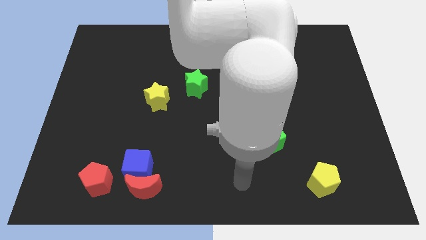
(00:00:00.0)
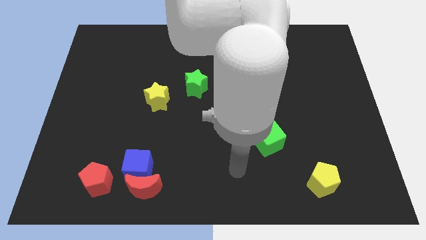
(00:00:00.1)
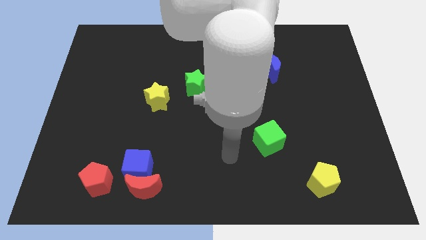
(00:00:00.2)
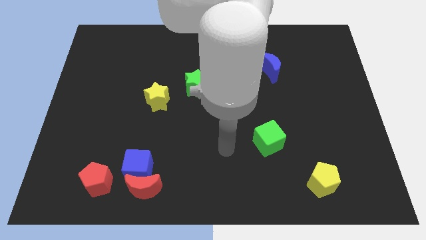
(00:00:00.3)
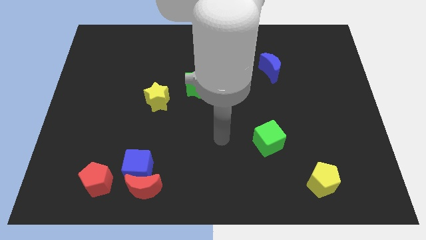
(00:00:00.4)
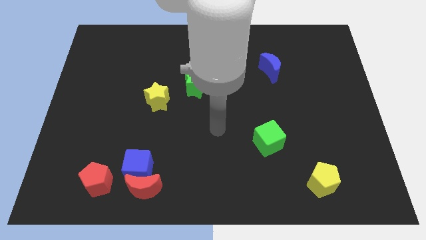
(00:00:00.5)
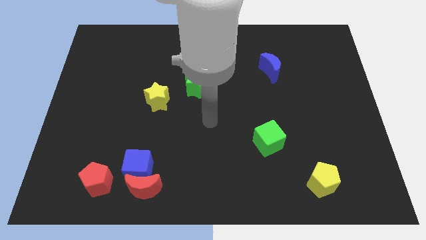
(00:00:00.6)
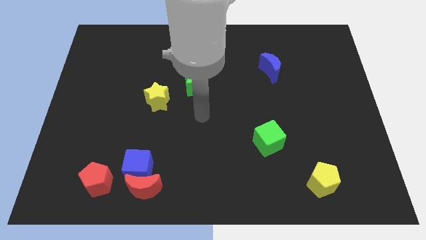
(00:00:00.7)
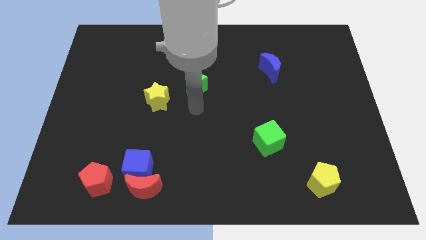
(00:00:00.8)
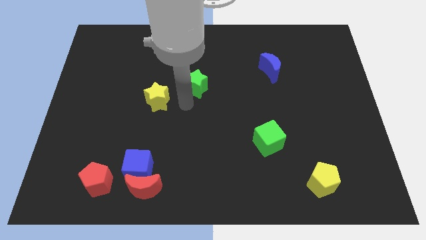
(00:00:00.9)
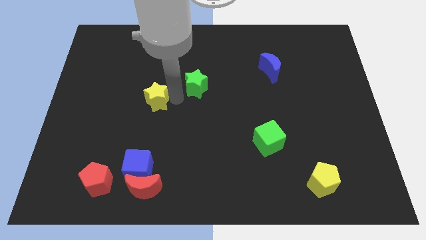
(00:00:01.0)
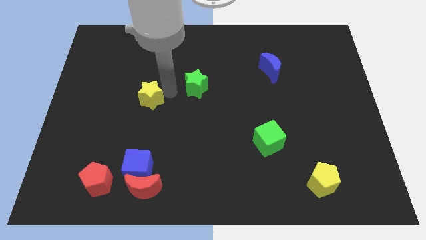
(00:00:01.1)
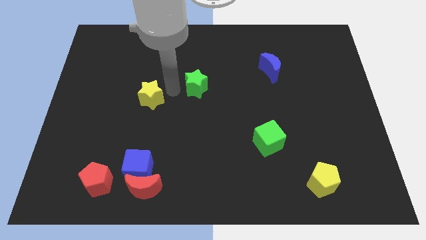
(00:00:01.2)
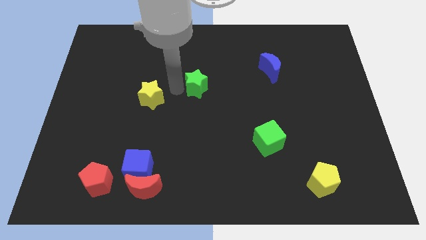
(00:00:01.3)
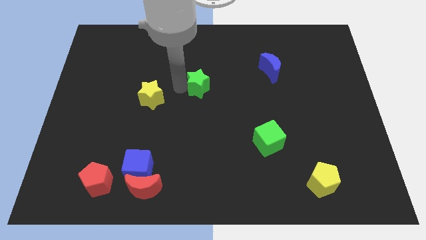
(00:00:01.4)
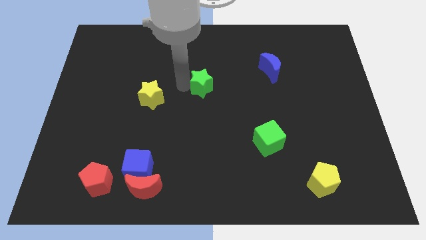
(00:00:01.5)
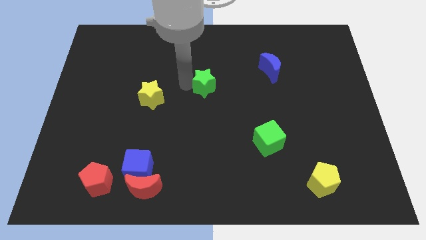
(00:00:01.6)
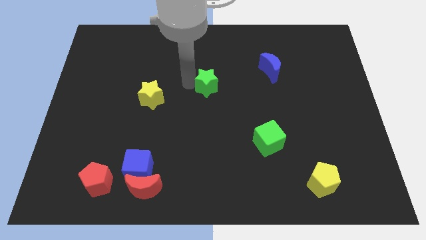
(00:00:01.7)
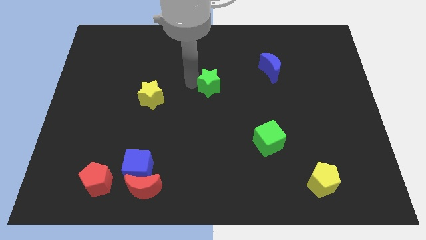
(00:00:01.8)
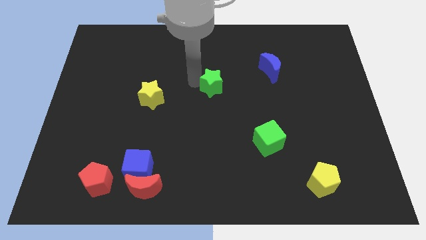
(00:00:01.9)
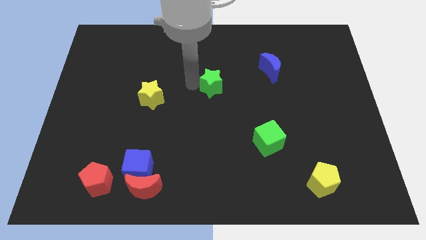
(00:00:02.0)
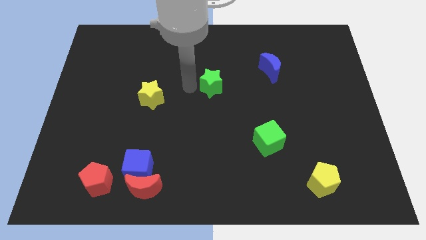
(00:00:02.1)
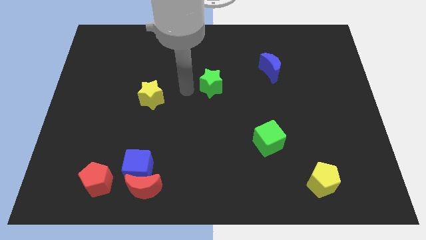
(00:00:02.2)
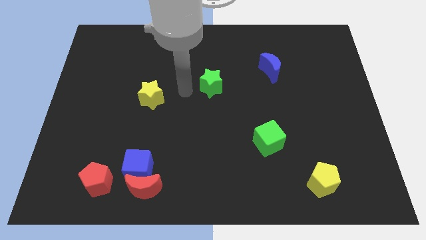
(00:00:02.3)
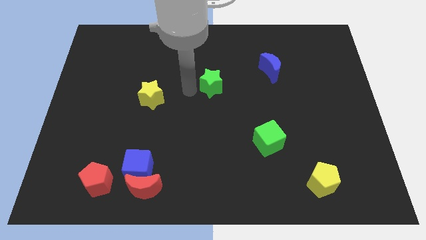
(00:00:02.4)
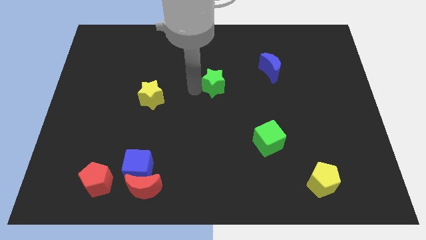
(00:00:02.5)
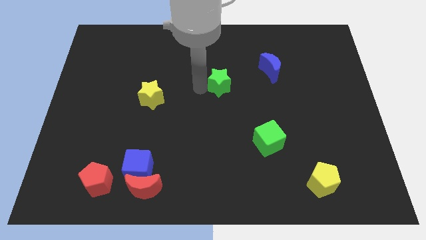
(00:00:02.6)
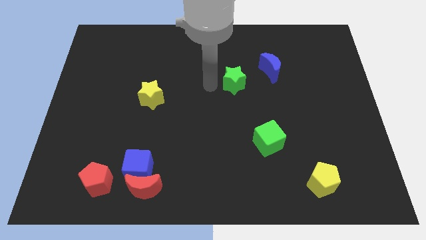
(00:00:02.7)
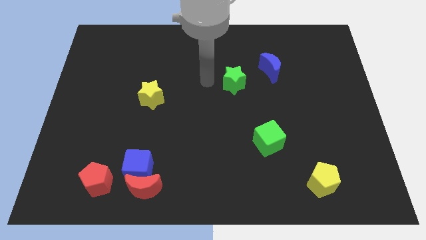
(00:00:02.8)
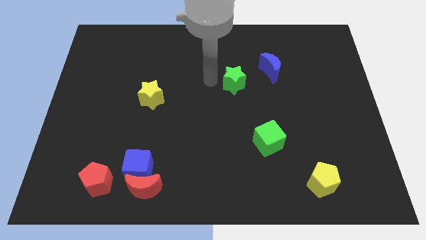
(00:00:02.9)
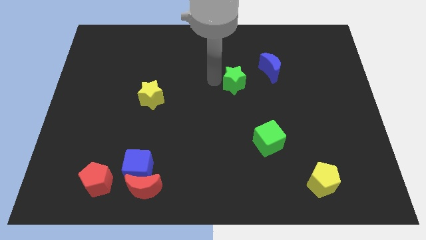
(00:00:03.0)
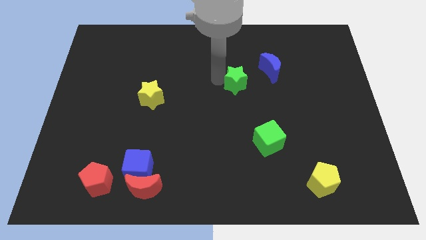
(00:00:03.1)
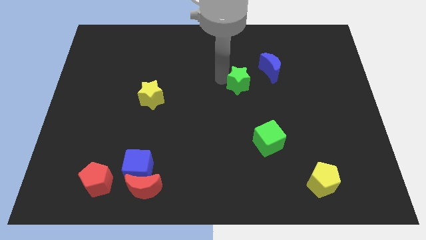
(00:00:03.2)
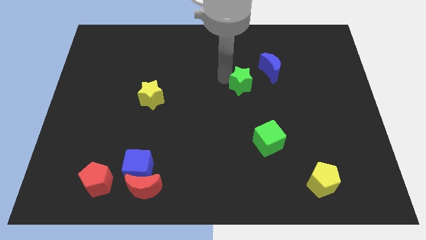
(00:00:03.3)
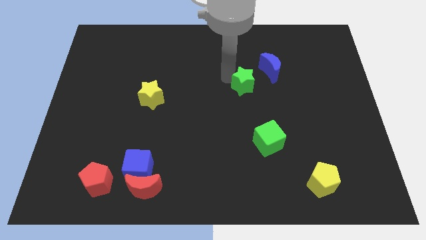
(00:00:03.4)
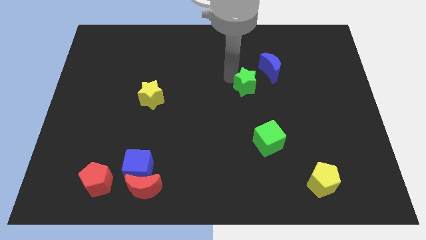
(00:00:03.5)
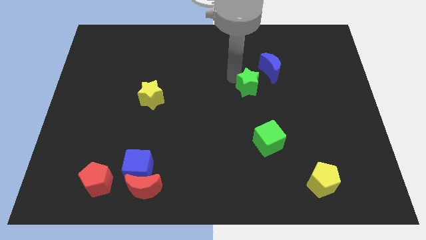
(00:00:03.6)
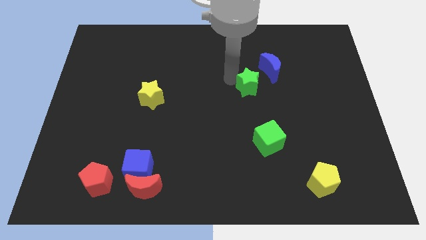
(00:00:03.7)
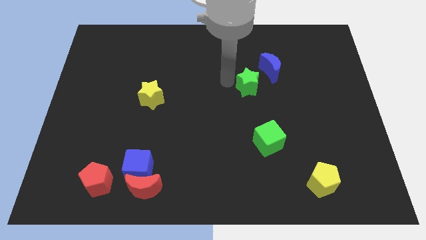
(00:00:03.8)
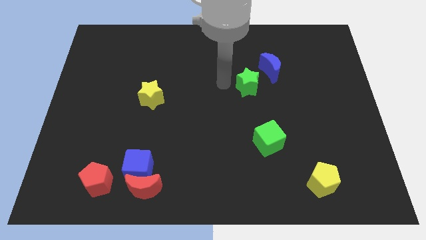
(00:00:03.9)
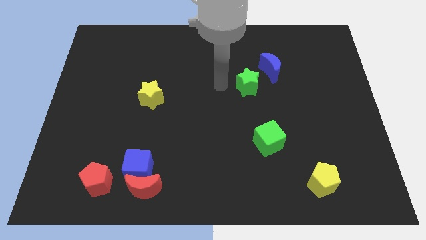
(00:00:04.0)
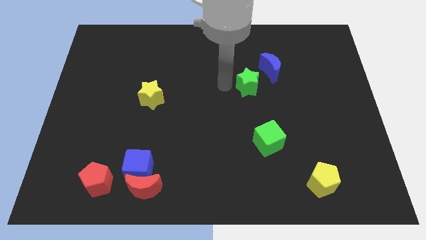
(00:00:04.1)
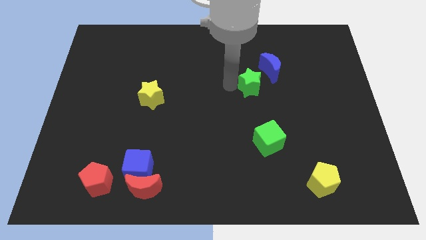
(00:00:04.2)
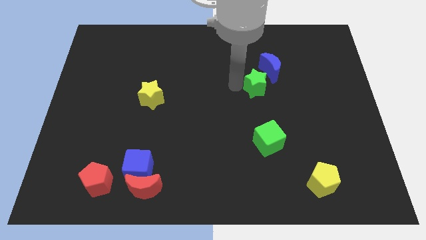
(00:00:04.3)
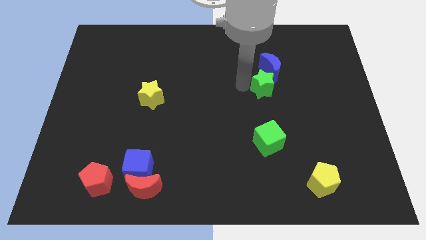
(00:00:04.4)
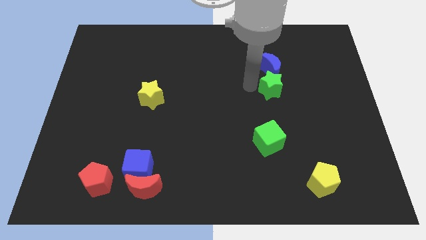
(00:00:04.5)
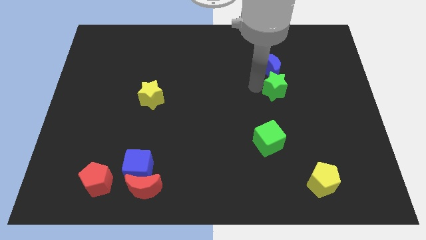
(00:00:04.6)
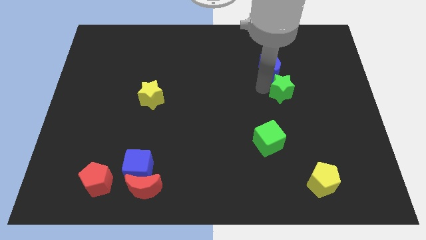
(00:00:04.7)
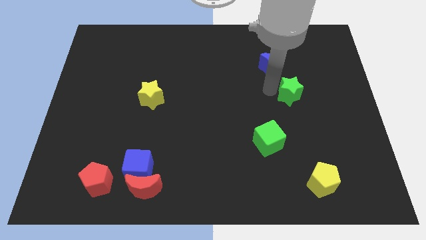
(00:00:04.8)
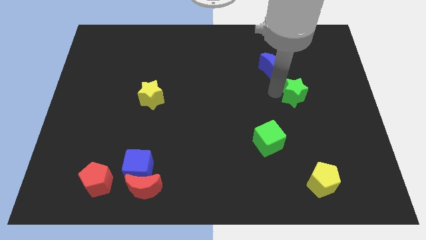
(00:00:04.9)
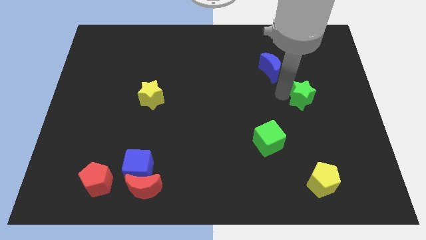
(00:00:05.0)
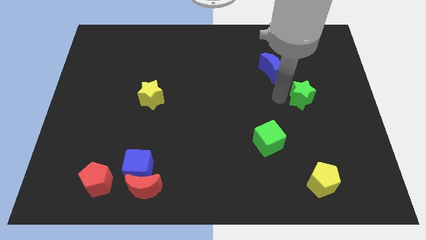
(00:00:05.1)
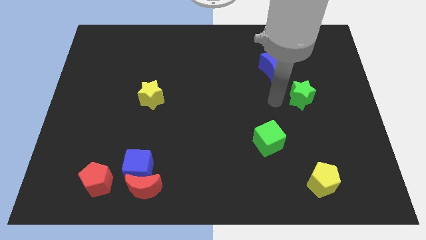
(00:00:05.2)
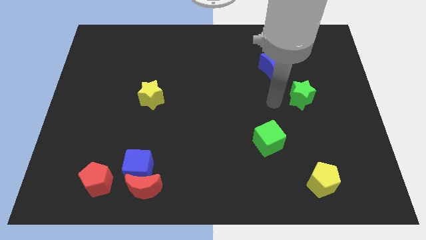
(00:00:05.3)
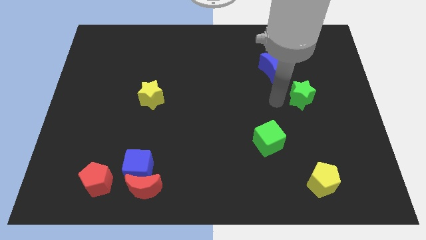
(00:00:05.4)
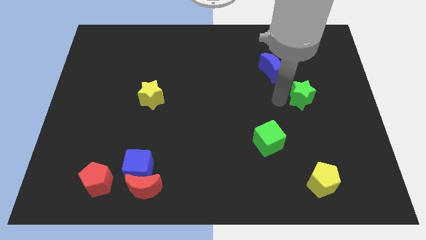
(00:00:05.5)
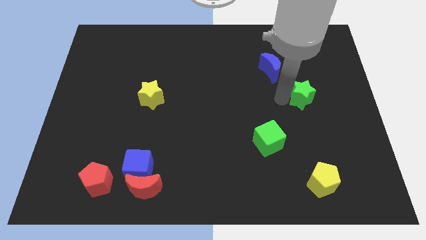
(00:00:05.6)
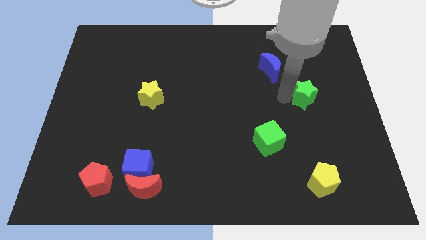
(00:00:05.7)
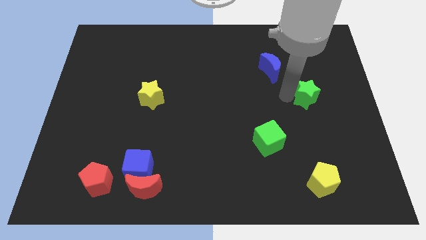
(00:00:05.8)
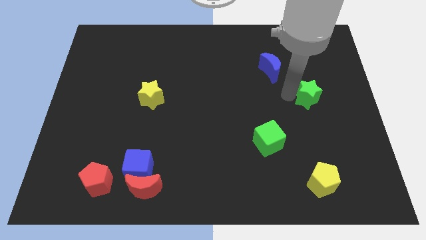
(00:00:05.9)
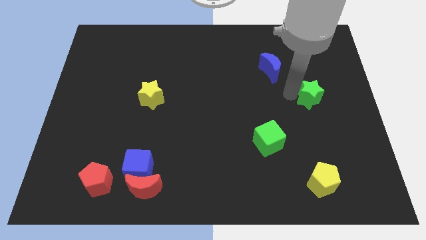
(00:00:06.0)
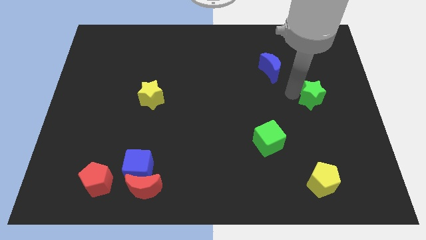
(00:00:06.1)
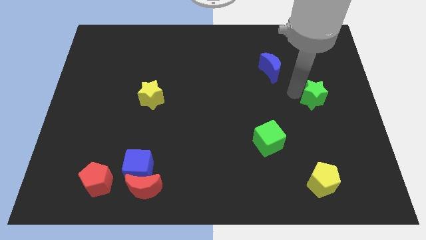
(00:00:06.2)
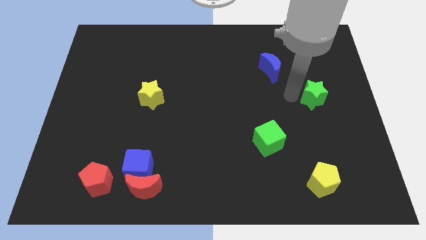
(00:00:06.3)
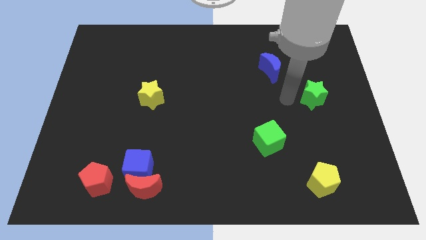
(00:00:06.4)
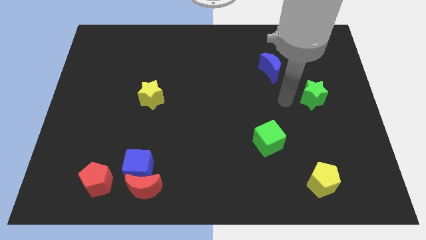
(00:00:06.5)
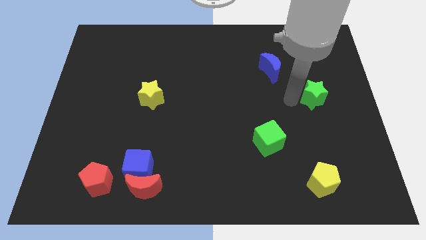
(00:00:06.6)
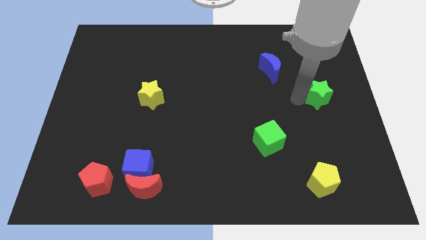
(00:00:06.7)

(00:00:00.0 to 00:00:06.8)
push the green star to the right side of the board
